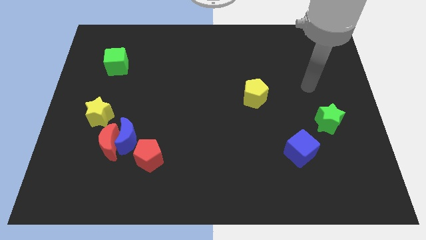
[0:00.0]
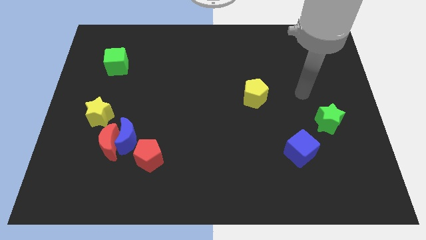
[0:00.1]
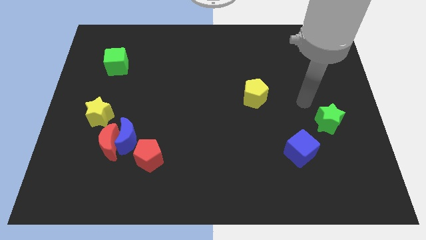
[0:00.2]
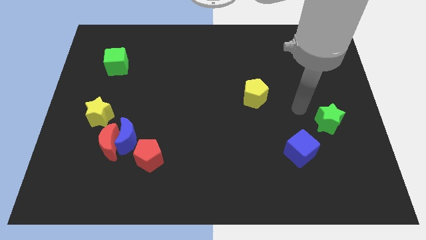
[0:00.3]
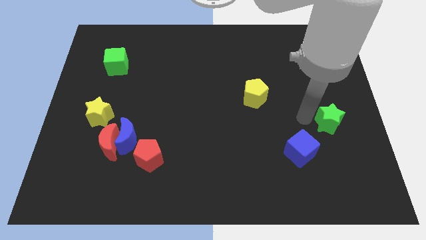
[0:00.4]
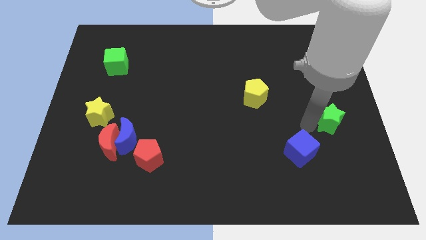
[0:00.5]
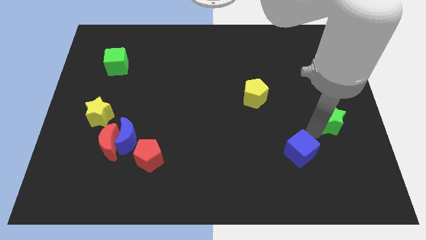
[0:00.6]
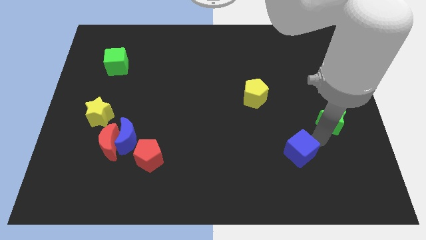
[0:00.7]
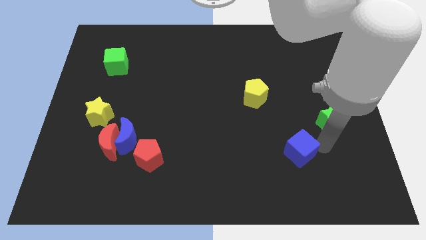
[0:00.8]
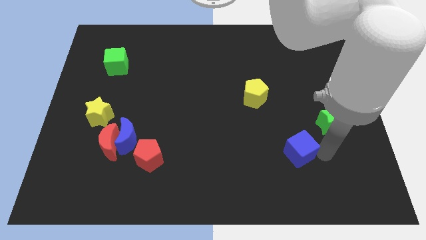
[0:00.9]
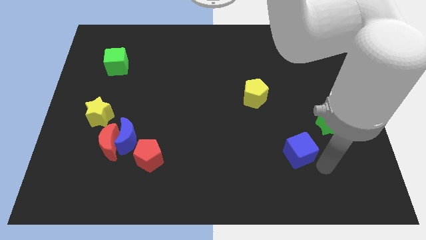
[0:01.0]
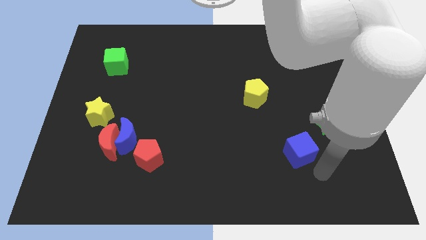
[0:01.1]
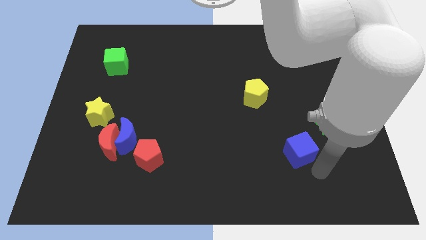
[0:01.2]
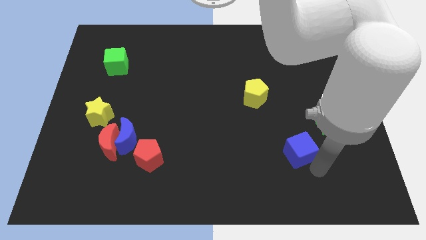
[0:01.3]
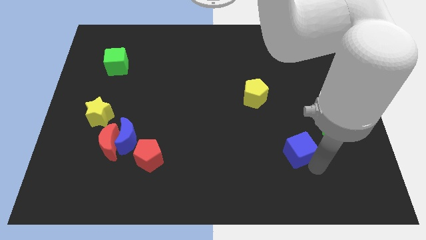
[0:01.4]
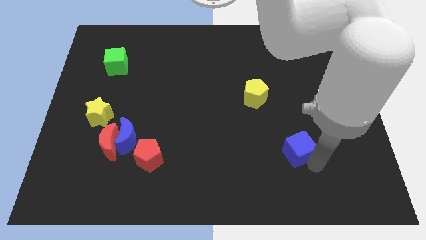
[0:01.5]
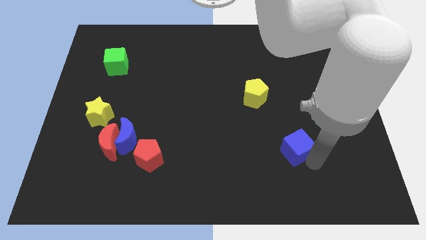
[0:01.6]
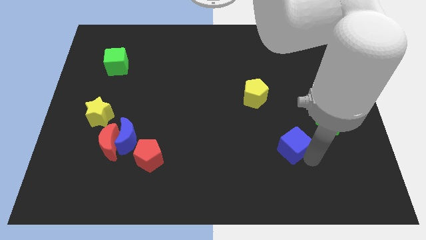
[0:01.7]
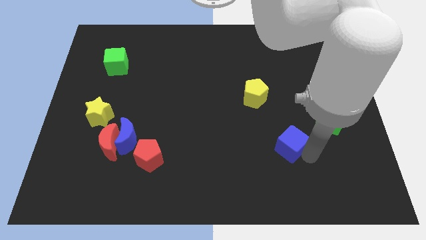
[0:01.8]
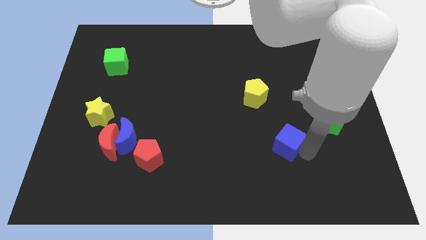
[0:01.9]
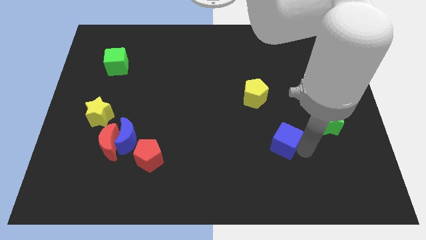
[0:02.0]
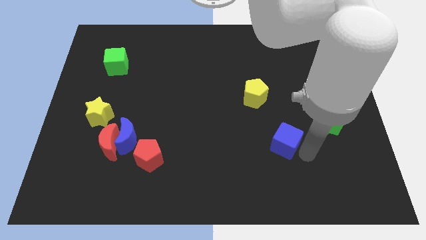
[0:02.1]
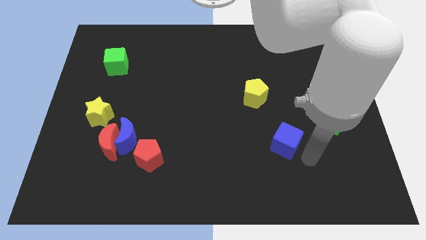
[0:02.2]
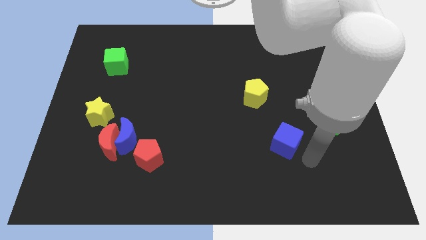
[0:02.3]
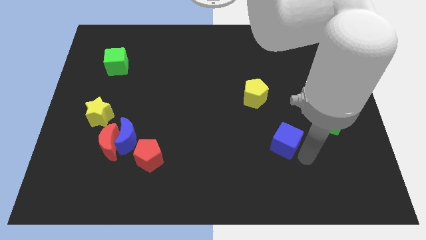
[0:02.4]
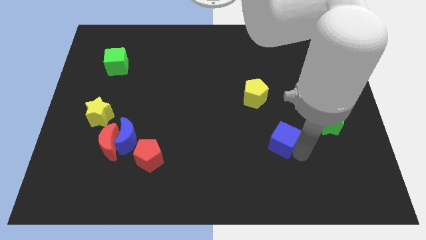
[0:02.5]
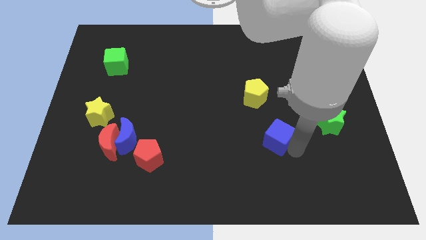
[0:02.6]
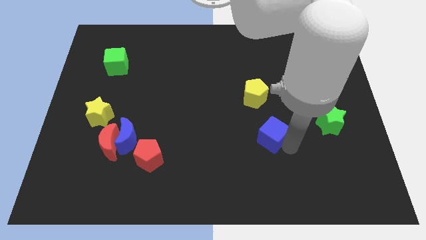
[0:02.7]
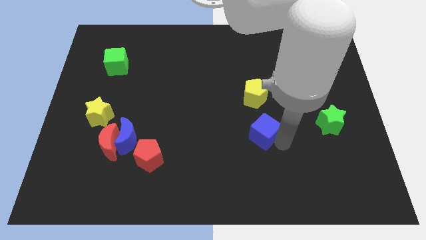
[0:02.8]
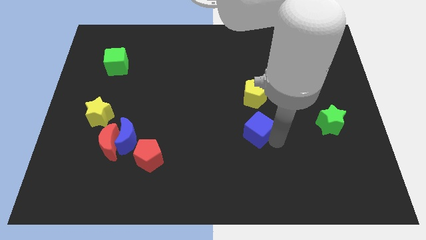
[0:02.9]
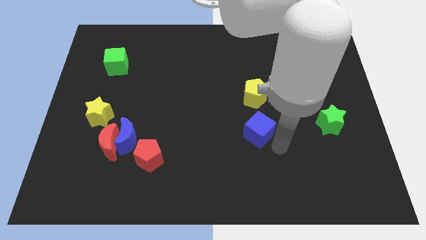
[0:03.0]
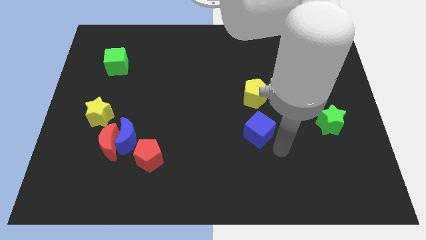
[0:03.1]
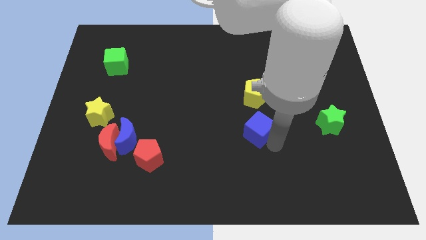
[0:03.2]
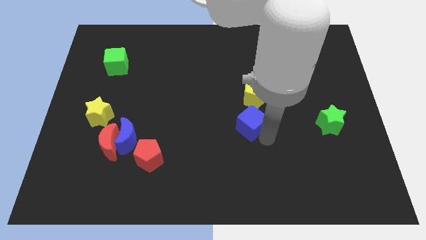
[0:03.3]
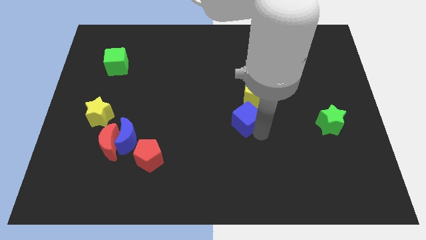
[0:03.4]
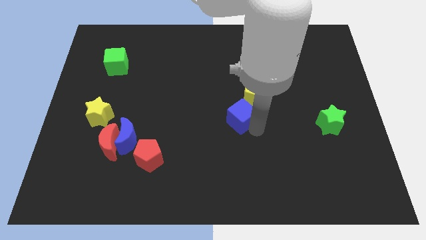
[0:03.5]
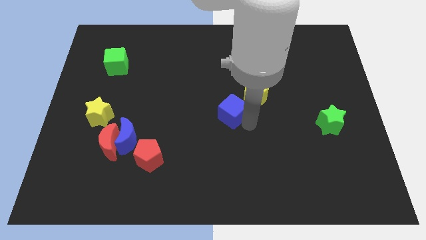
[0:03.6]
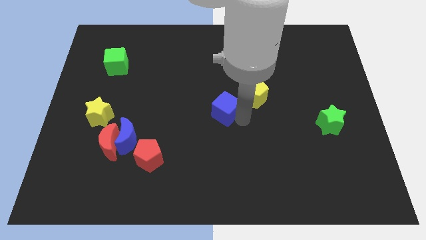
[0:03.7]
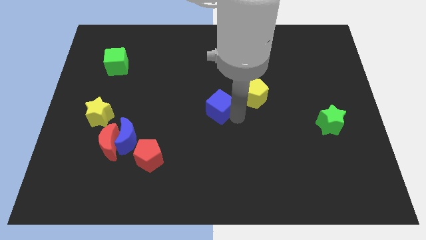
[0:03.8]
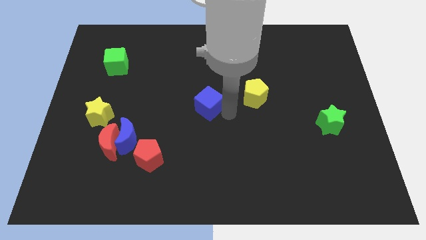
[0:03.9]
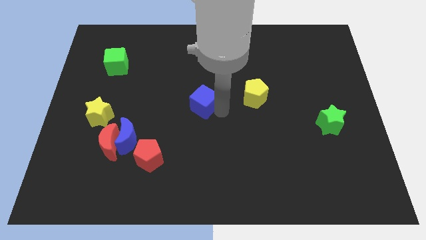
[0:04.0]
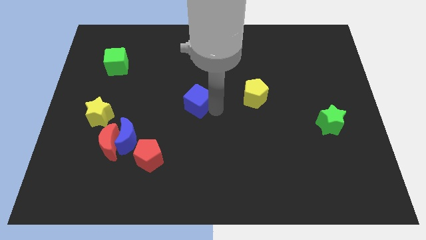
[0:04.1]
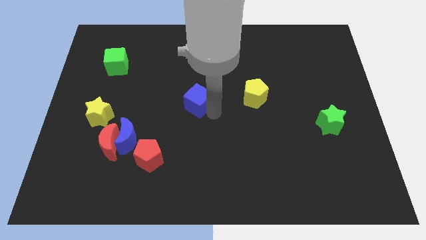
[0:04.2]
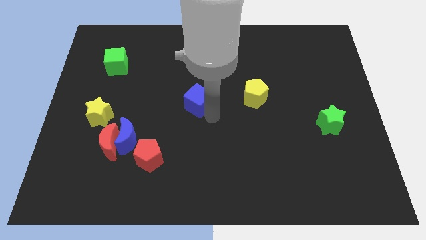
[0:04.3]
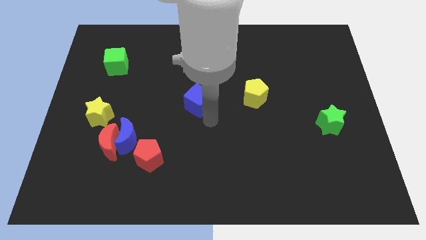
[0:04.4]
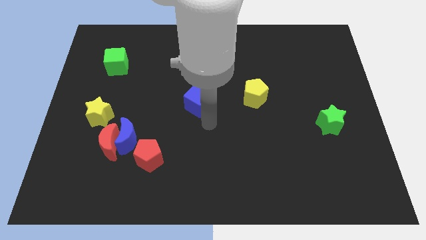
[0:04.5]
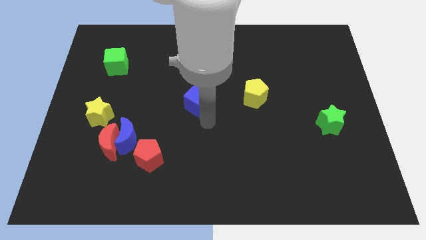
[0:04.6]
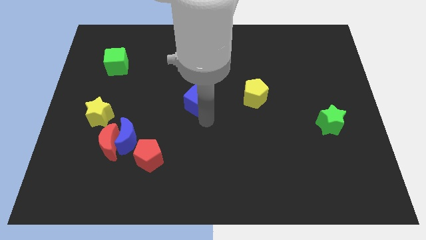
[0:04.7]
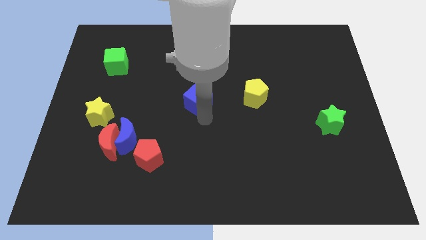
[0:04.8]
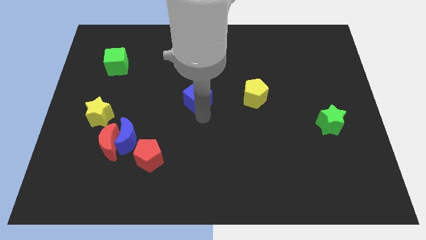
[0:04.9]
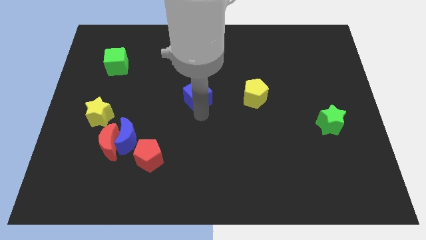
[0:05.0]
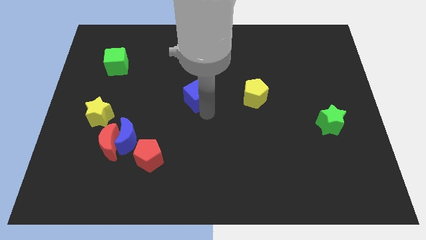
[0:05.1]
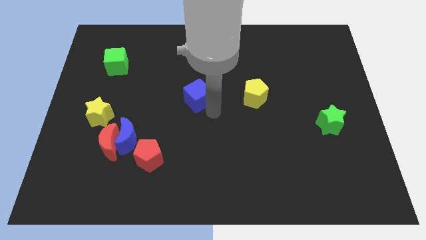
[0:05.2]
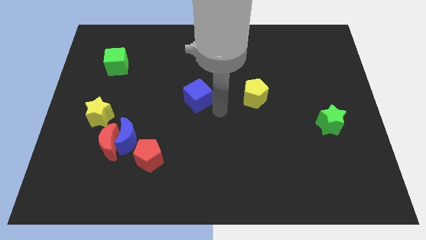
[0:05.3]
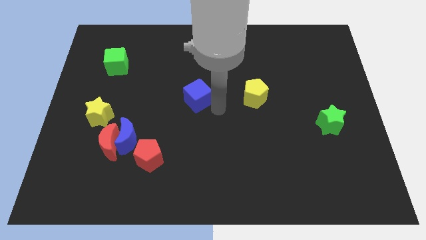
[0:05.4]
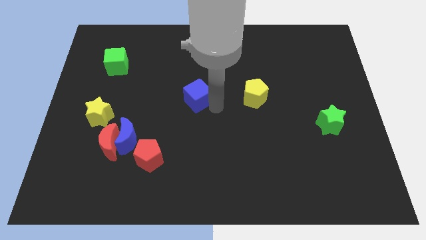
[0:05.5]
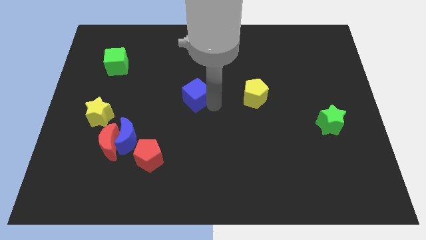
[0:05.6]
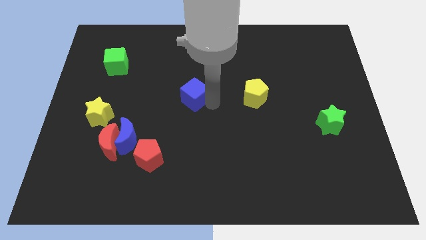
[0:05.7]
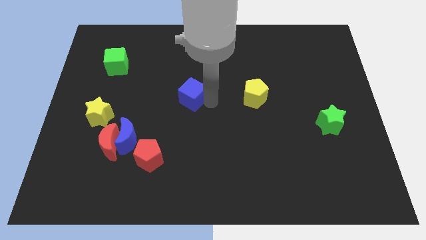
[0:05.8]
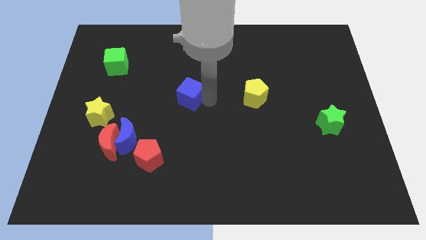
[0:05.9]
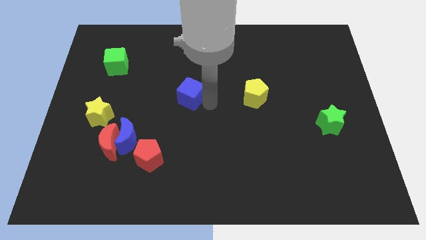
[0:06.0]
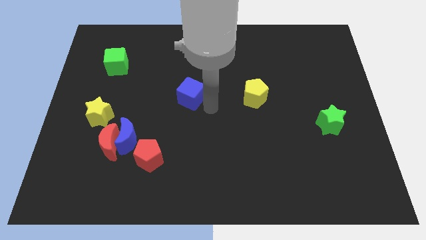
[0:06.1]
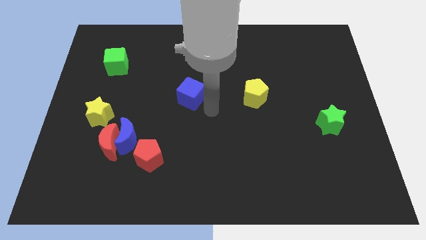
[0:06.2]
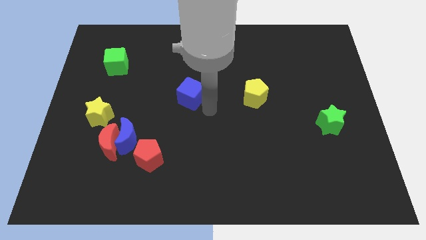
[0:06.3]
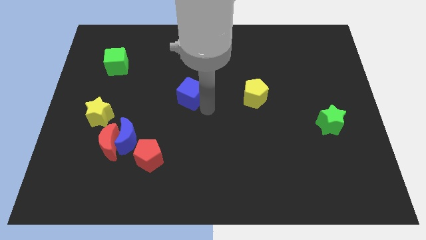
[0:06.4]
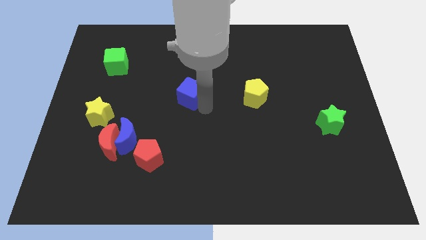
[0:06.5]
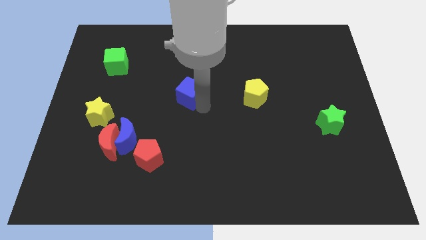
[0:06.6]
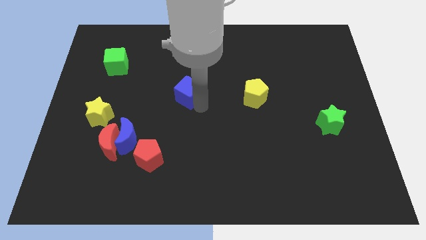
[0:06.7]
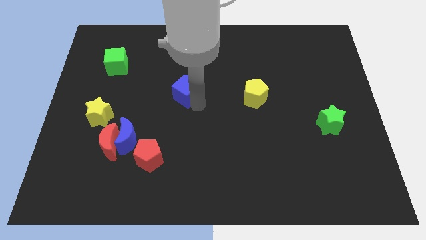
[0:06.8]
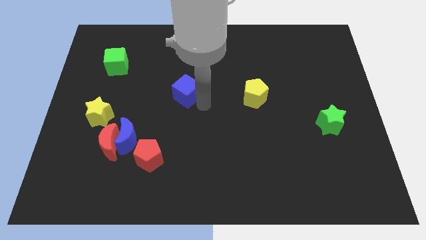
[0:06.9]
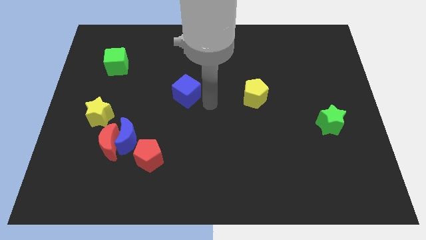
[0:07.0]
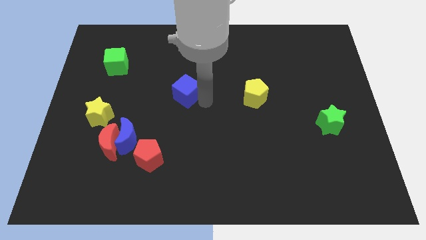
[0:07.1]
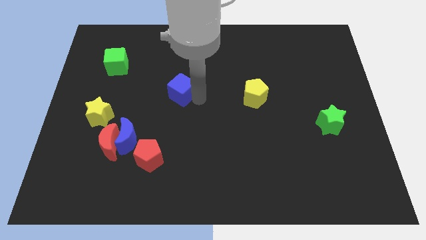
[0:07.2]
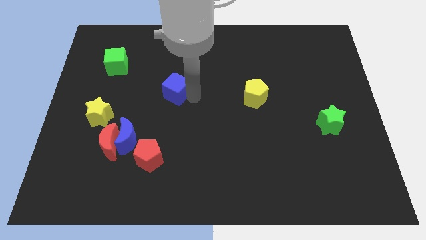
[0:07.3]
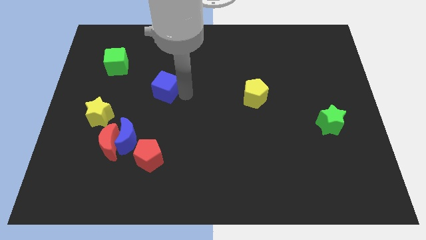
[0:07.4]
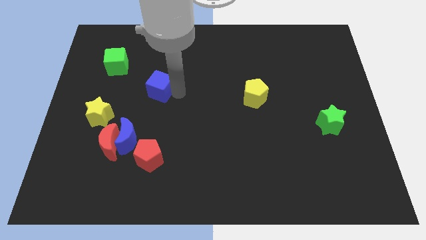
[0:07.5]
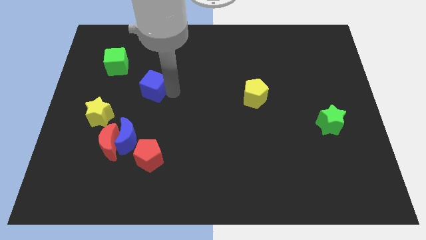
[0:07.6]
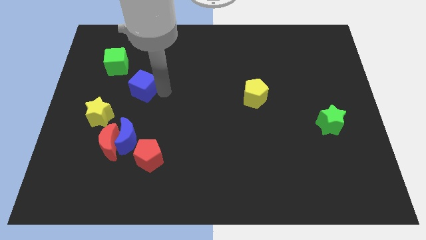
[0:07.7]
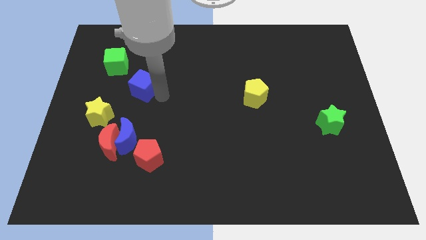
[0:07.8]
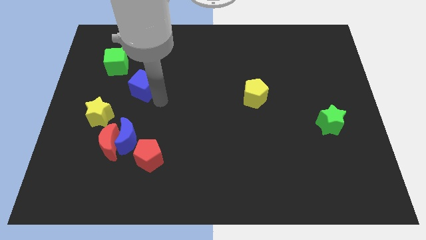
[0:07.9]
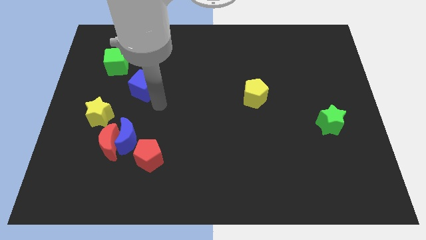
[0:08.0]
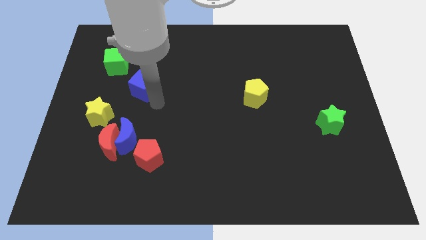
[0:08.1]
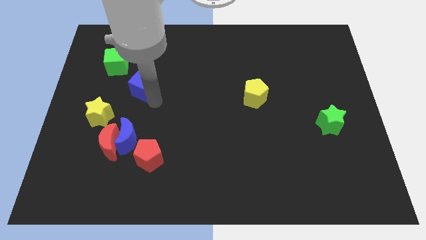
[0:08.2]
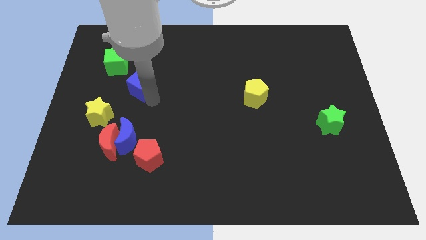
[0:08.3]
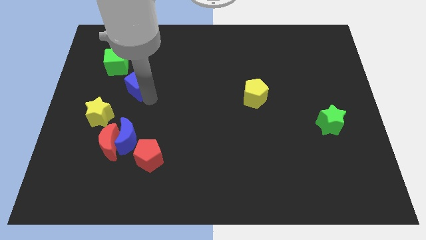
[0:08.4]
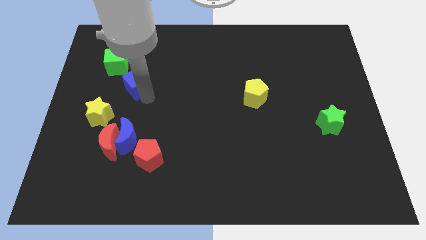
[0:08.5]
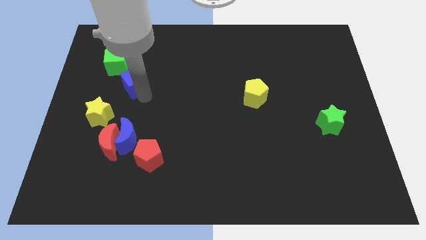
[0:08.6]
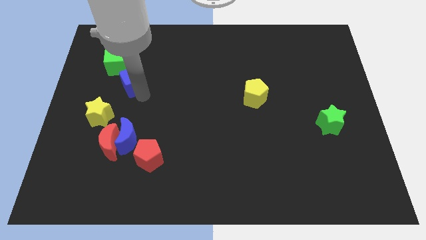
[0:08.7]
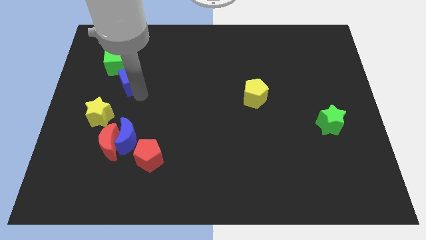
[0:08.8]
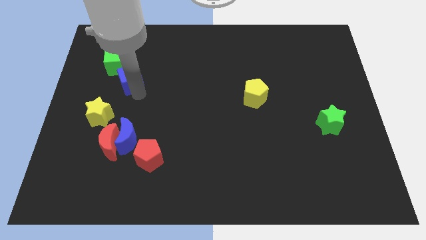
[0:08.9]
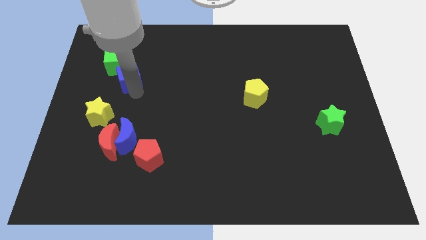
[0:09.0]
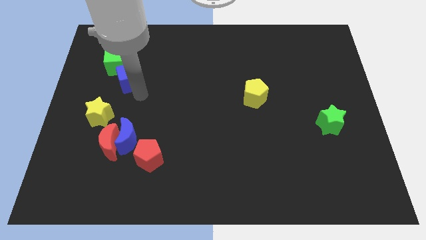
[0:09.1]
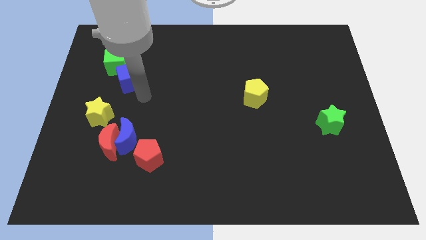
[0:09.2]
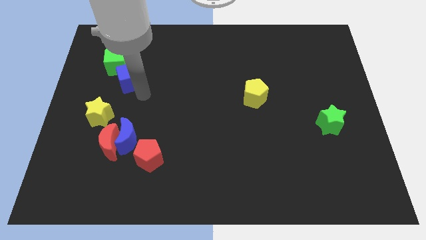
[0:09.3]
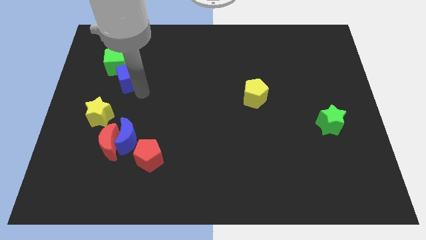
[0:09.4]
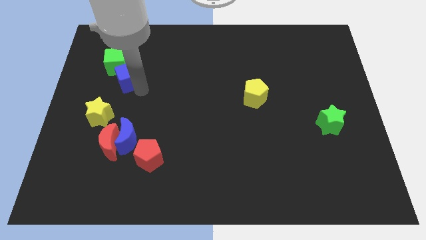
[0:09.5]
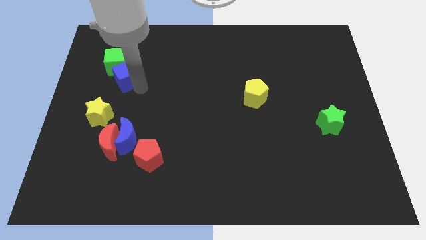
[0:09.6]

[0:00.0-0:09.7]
slide the blue cube close to the green cube
